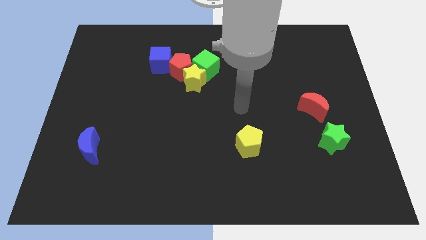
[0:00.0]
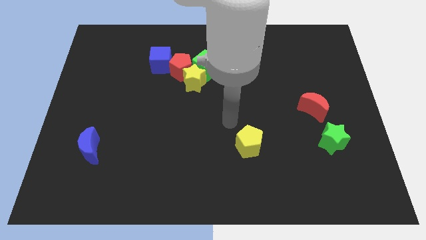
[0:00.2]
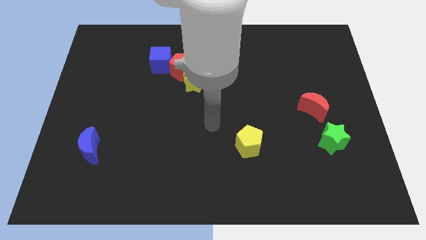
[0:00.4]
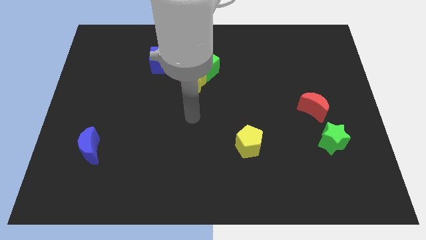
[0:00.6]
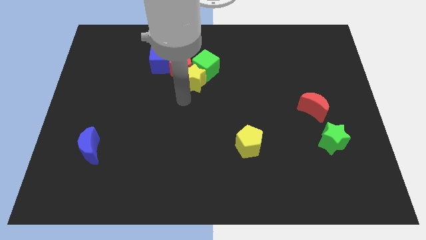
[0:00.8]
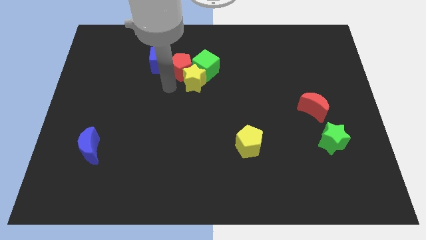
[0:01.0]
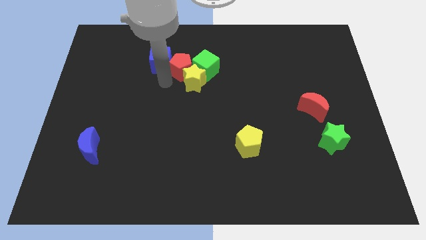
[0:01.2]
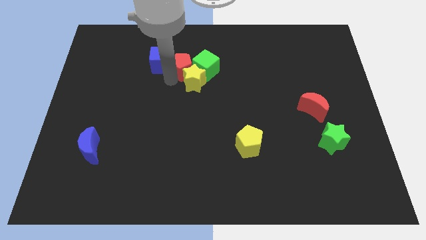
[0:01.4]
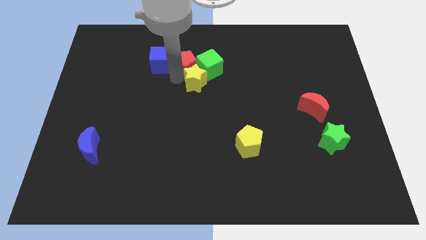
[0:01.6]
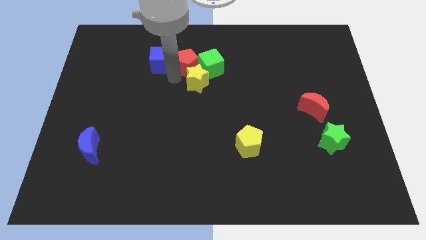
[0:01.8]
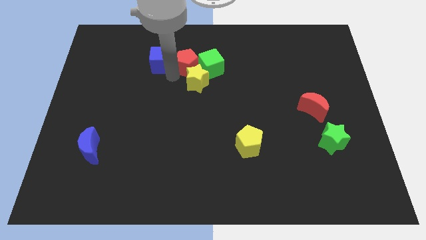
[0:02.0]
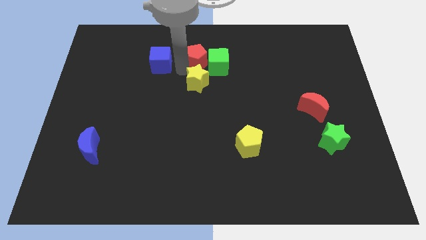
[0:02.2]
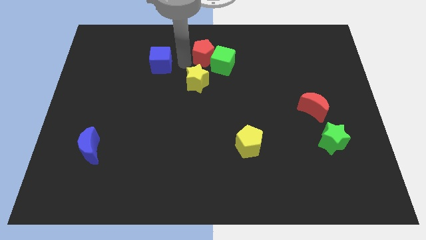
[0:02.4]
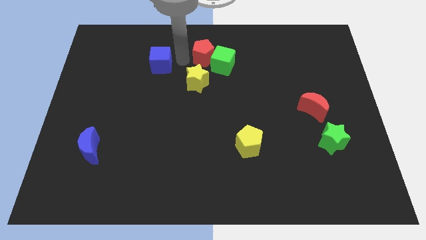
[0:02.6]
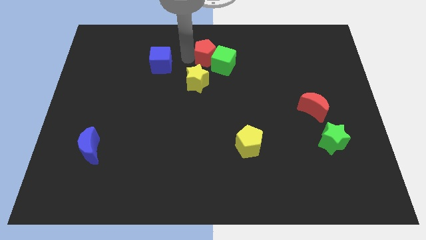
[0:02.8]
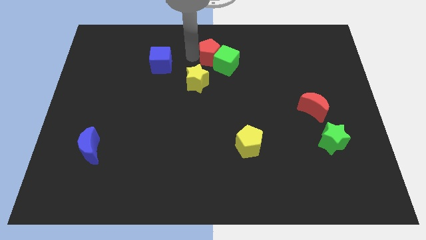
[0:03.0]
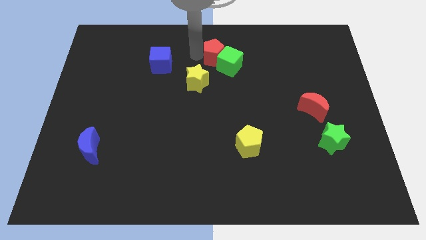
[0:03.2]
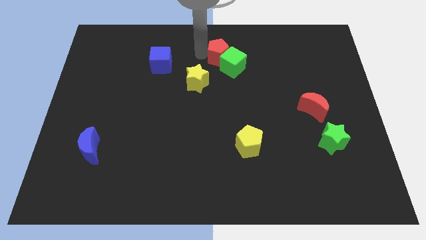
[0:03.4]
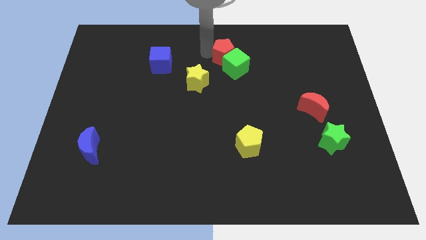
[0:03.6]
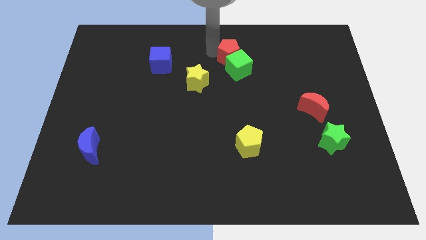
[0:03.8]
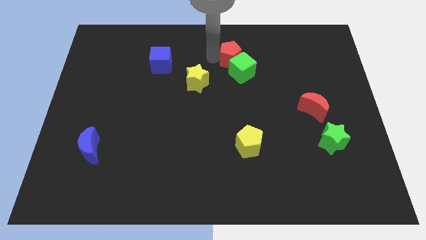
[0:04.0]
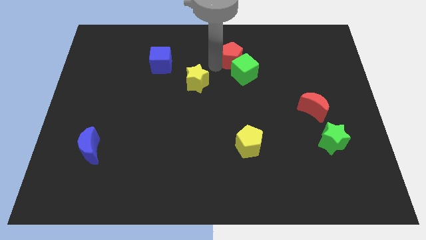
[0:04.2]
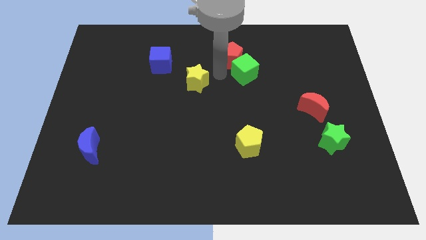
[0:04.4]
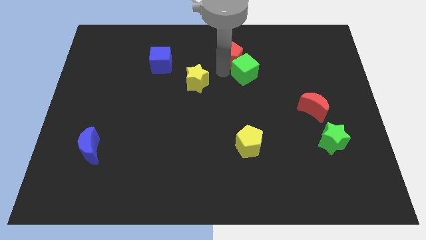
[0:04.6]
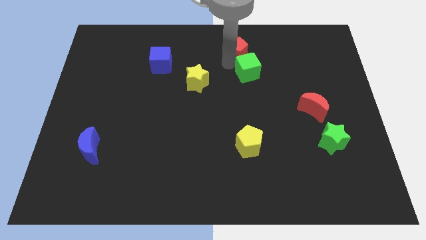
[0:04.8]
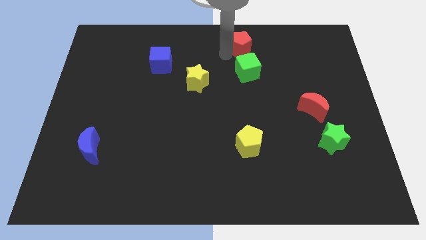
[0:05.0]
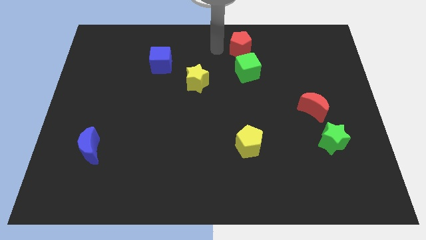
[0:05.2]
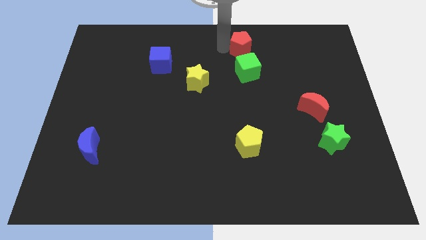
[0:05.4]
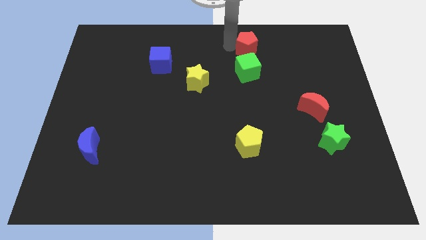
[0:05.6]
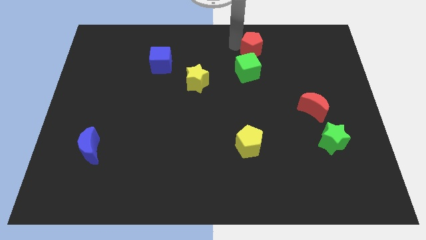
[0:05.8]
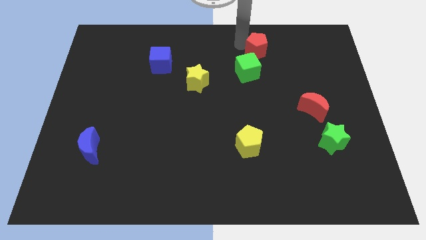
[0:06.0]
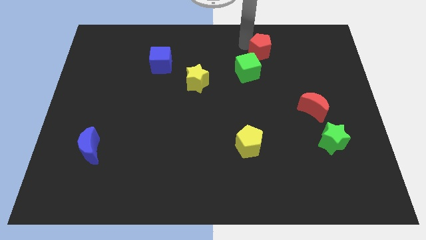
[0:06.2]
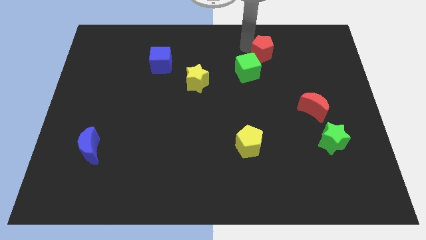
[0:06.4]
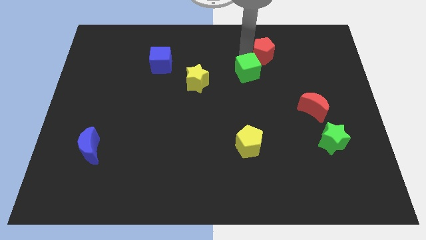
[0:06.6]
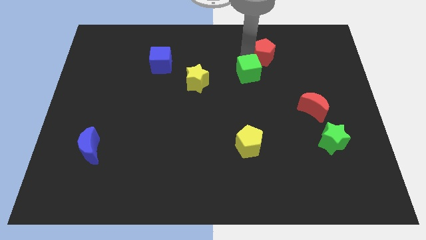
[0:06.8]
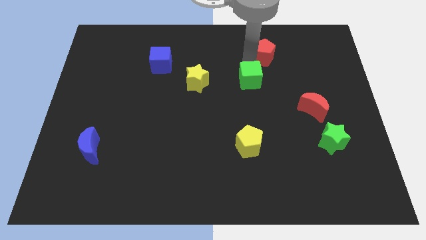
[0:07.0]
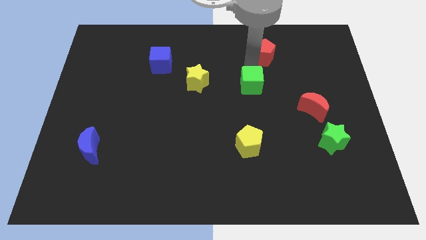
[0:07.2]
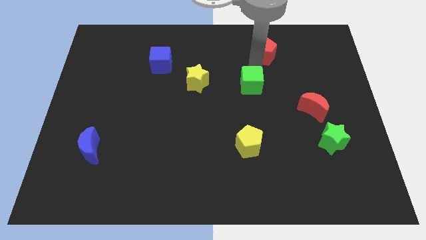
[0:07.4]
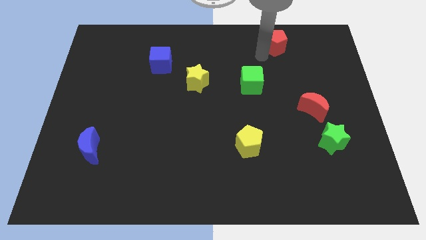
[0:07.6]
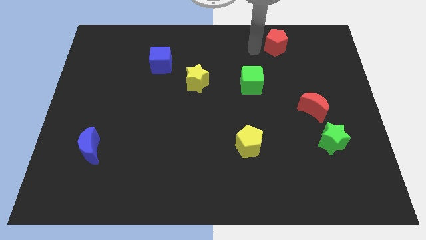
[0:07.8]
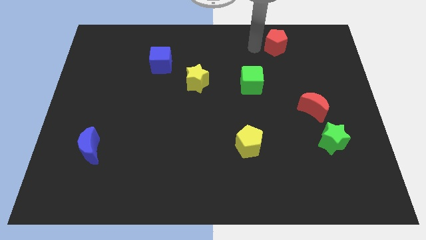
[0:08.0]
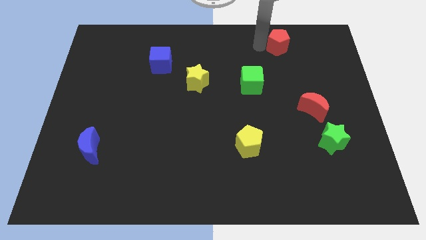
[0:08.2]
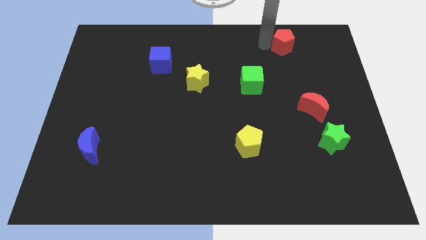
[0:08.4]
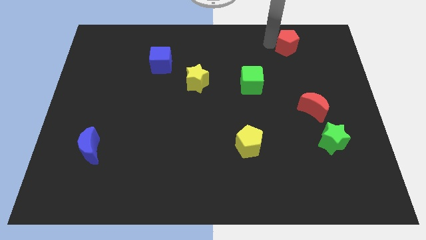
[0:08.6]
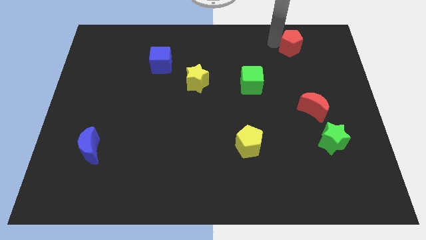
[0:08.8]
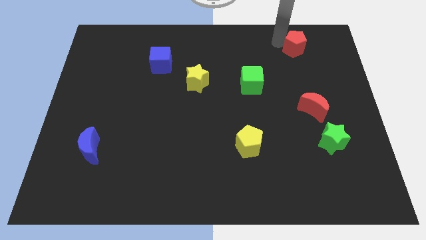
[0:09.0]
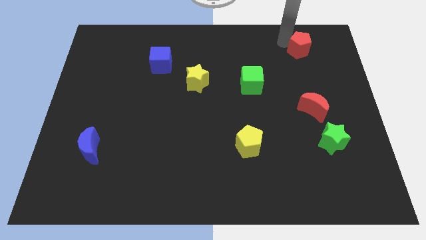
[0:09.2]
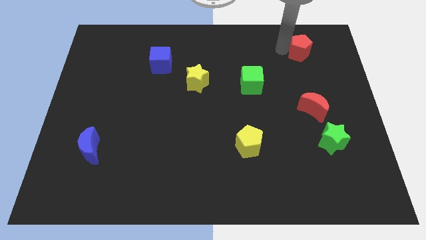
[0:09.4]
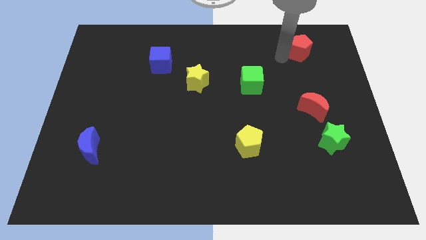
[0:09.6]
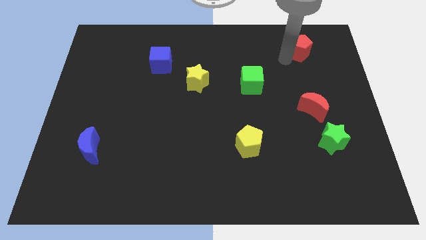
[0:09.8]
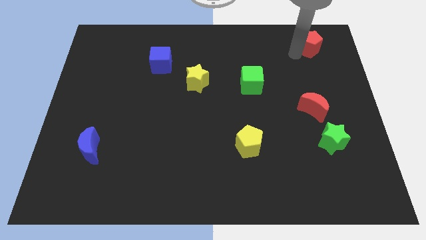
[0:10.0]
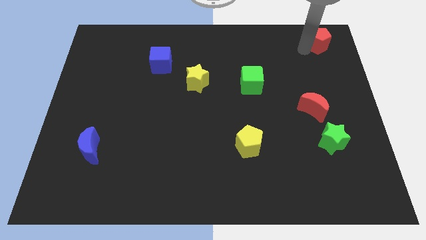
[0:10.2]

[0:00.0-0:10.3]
slide the red pentagon to the top right of the board

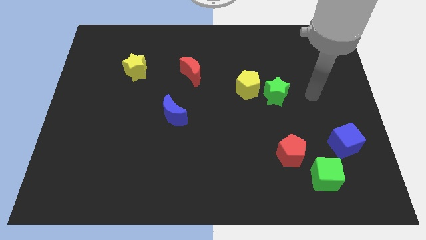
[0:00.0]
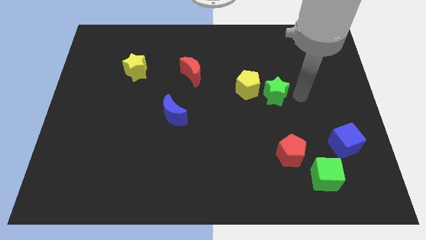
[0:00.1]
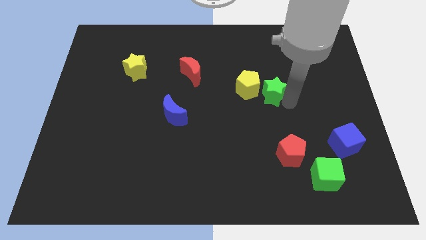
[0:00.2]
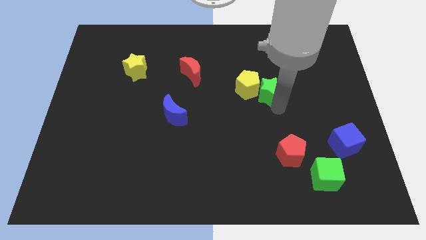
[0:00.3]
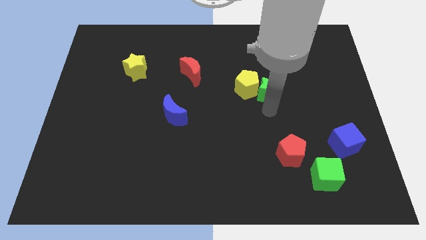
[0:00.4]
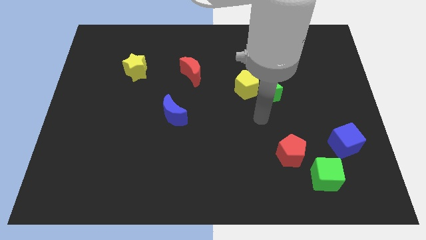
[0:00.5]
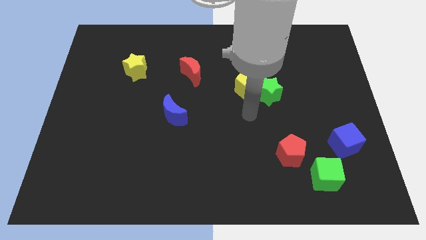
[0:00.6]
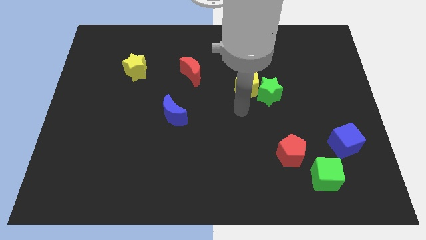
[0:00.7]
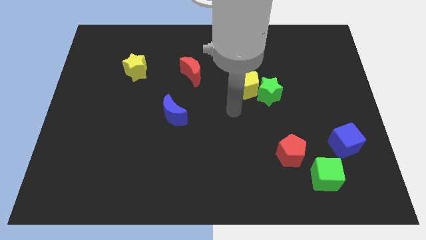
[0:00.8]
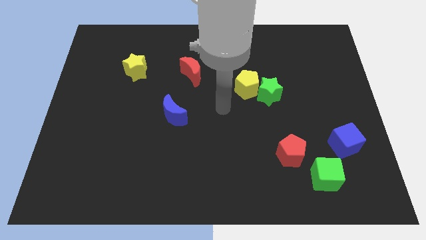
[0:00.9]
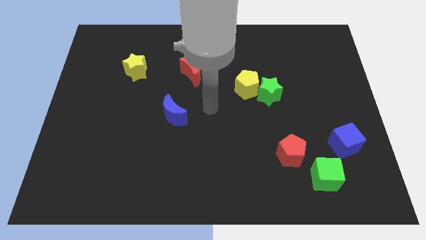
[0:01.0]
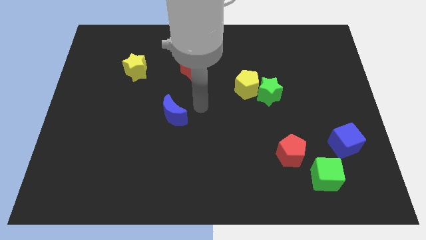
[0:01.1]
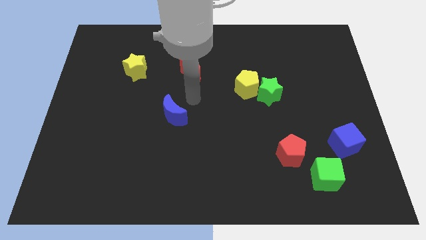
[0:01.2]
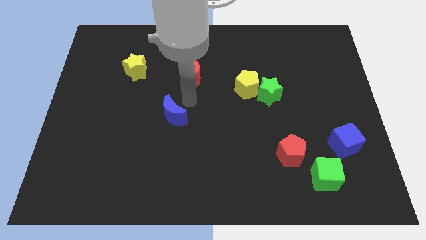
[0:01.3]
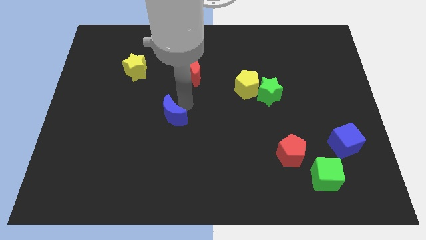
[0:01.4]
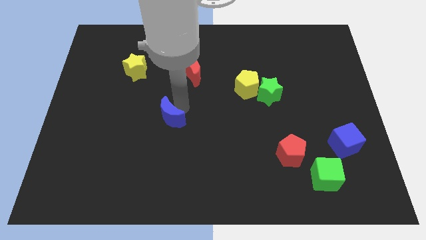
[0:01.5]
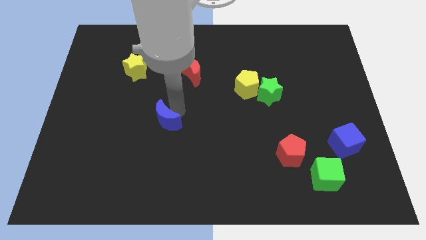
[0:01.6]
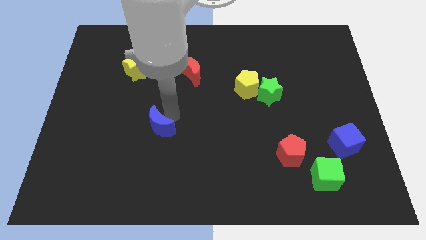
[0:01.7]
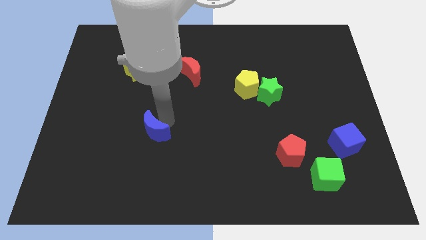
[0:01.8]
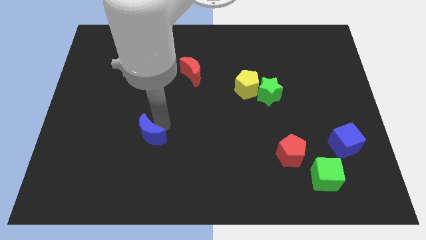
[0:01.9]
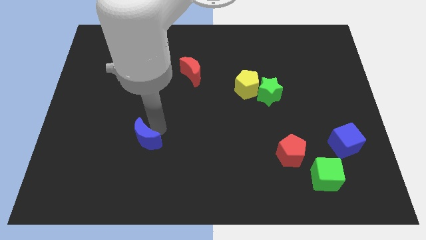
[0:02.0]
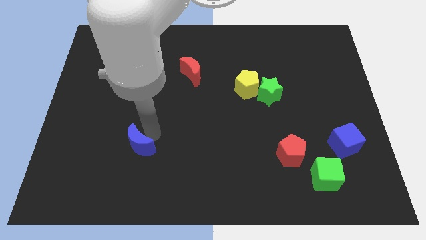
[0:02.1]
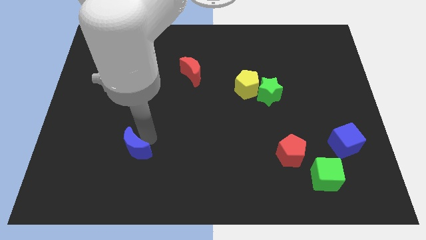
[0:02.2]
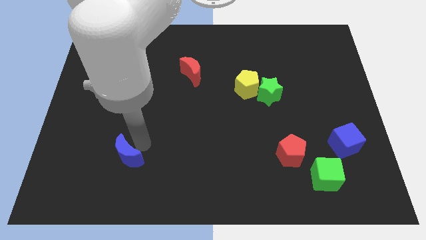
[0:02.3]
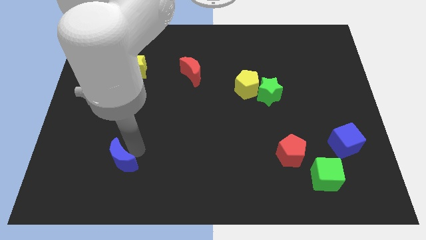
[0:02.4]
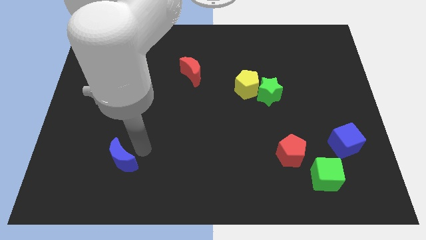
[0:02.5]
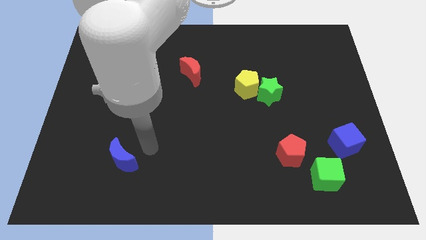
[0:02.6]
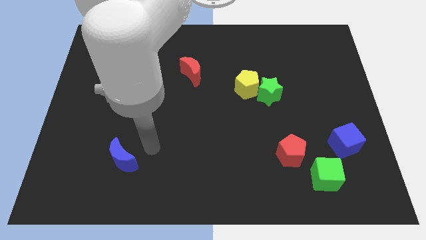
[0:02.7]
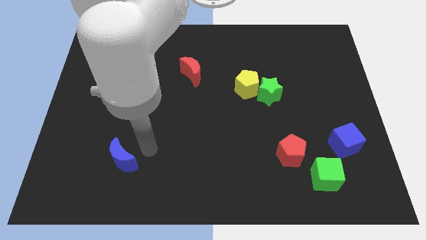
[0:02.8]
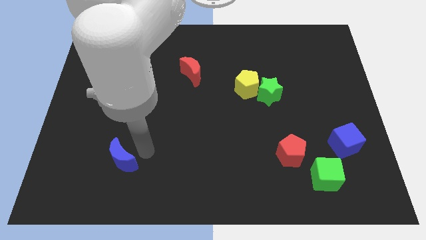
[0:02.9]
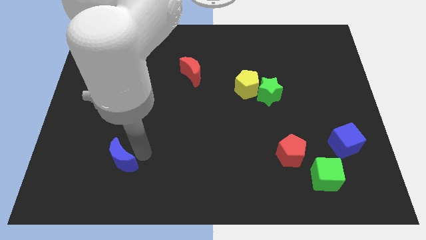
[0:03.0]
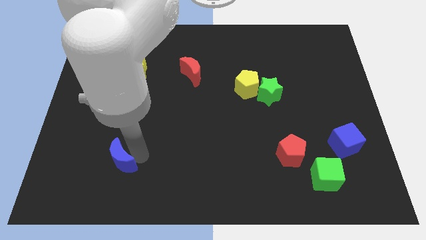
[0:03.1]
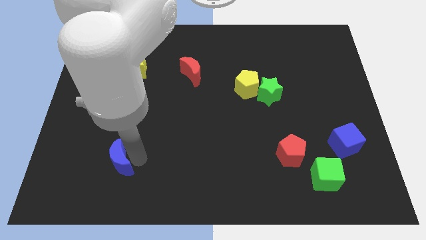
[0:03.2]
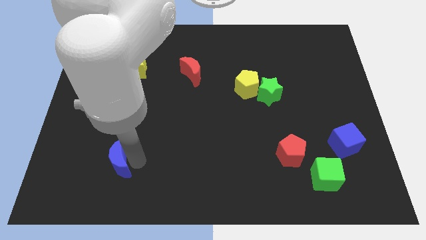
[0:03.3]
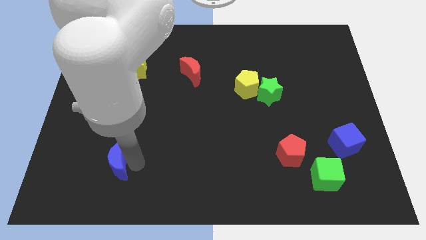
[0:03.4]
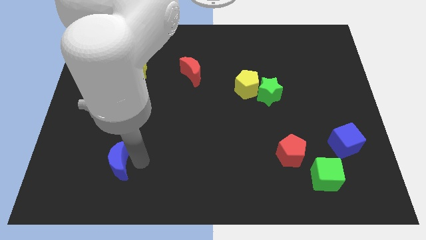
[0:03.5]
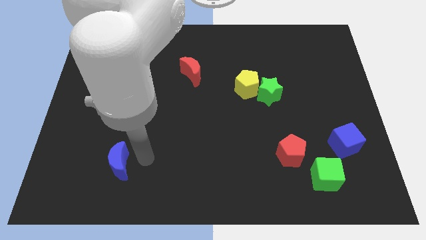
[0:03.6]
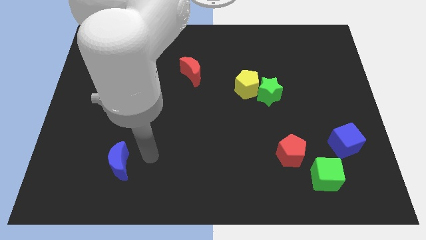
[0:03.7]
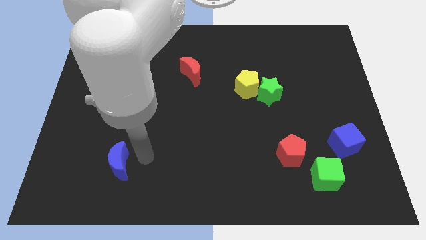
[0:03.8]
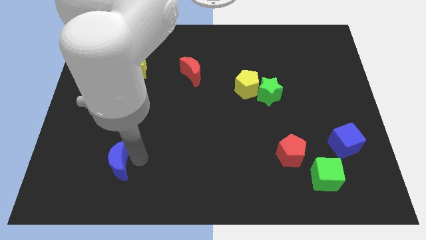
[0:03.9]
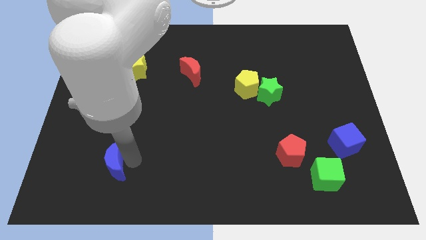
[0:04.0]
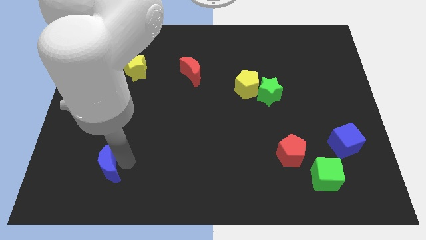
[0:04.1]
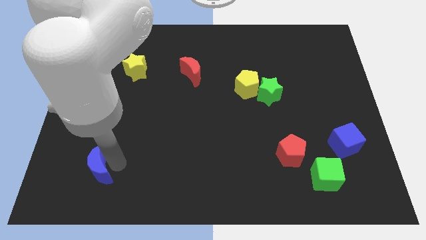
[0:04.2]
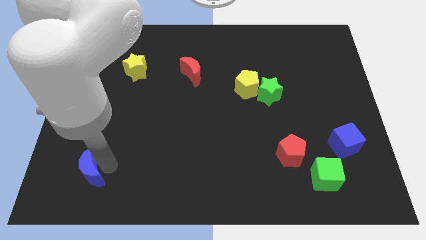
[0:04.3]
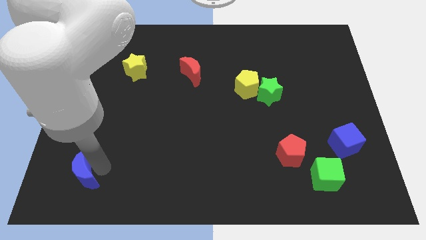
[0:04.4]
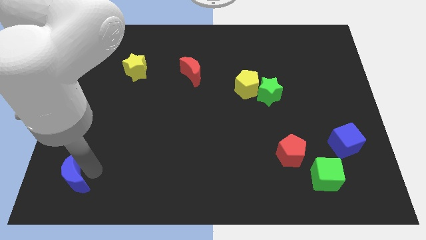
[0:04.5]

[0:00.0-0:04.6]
put the blue moon to the bottom left of the board
